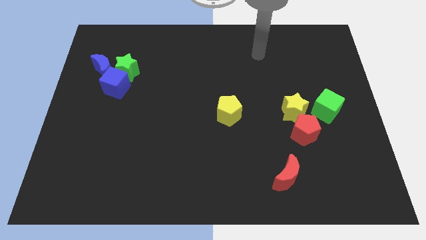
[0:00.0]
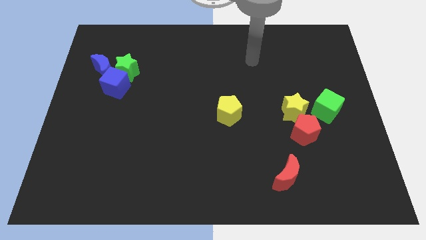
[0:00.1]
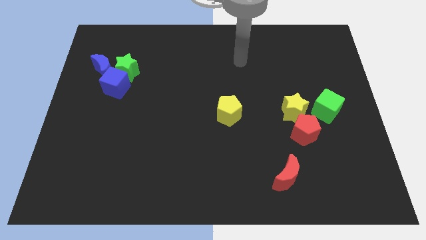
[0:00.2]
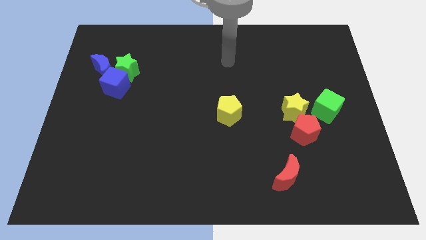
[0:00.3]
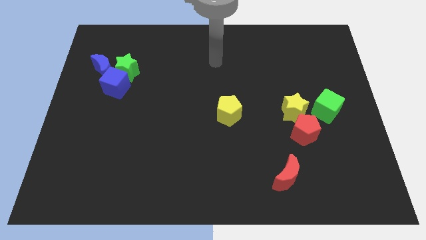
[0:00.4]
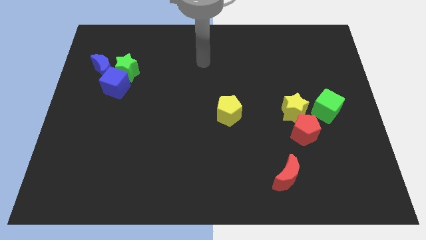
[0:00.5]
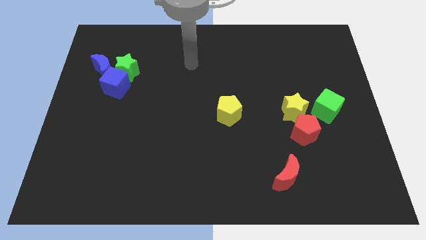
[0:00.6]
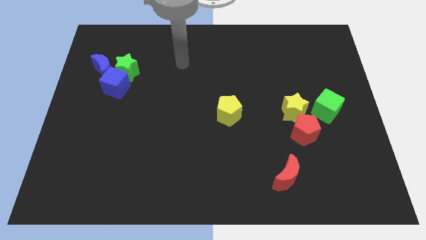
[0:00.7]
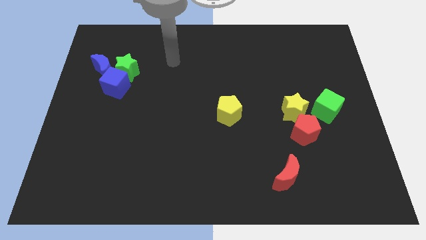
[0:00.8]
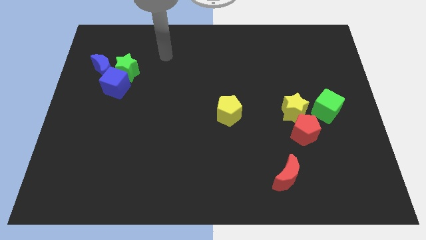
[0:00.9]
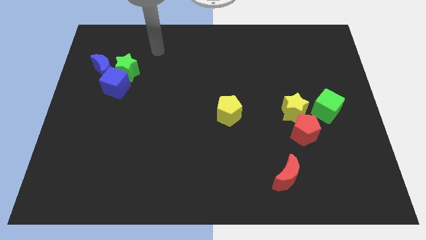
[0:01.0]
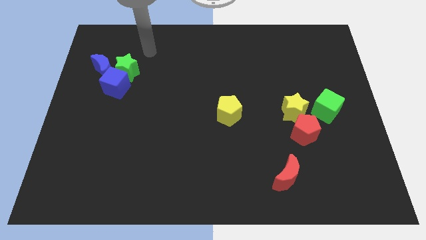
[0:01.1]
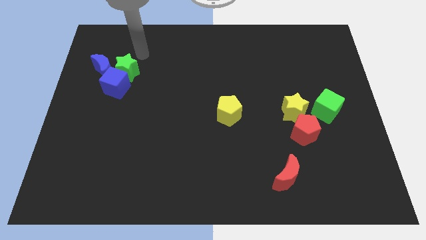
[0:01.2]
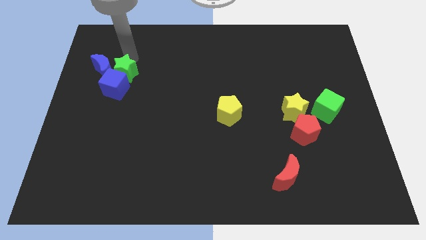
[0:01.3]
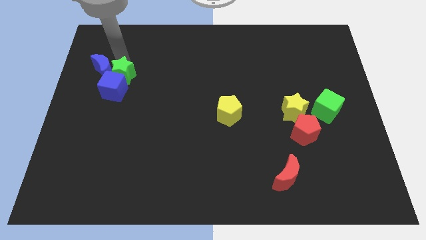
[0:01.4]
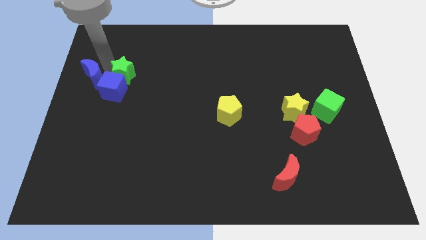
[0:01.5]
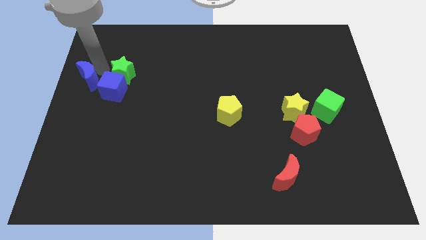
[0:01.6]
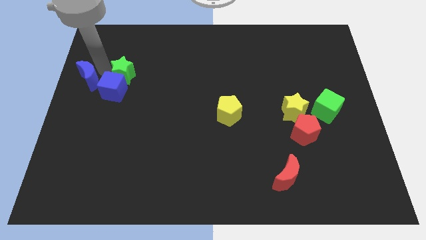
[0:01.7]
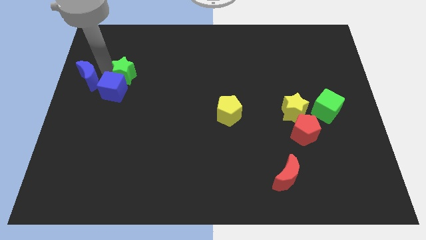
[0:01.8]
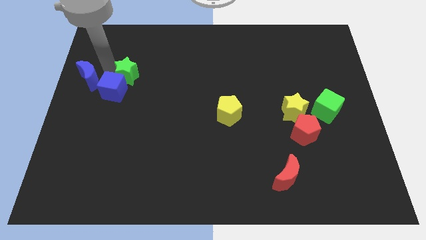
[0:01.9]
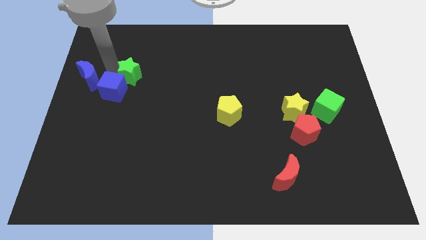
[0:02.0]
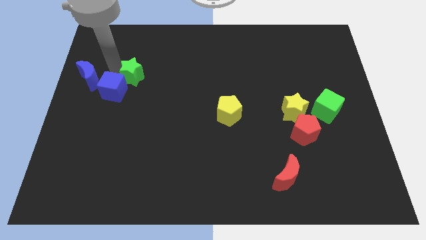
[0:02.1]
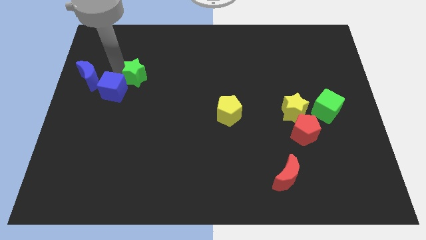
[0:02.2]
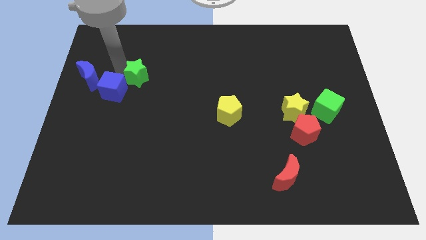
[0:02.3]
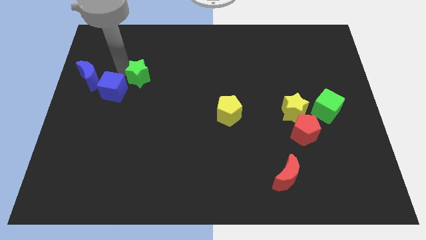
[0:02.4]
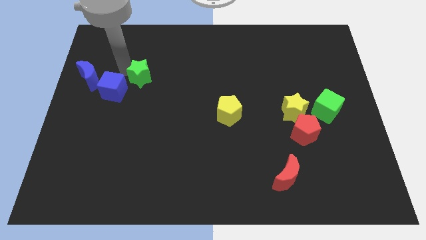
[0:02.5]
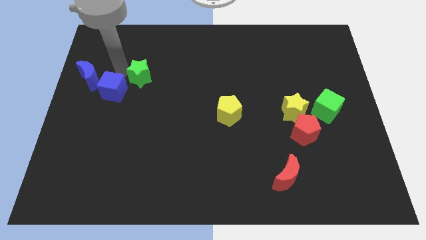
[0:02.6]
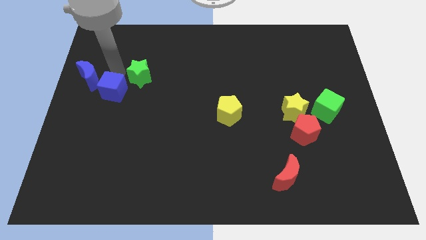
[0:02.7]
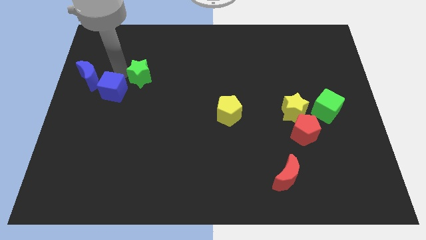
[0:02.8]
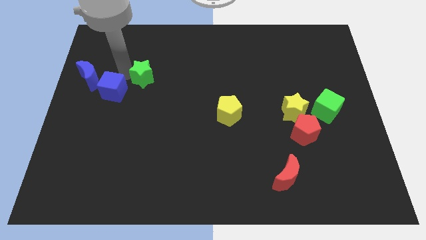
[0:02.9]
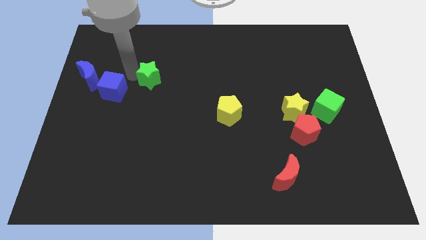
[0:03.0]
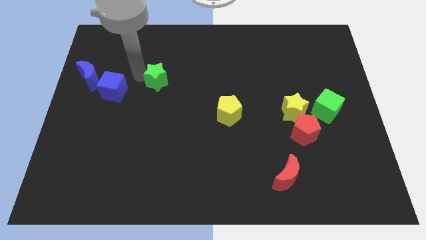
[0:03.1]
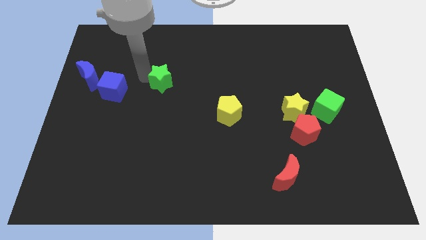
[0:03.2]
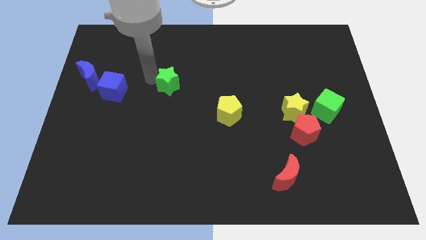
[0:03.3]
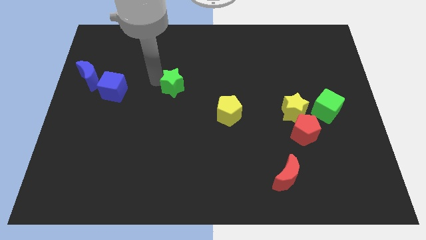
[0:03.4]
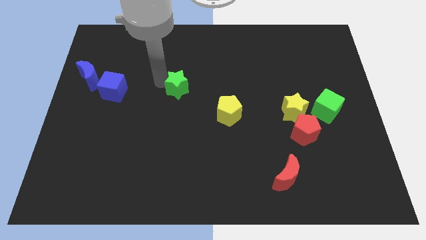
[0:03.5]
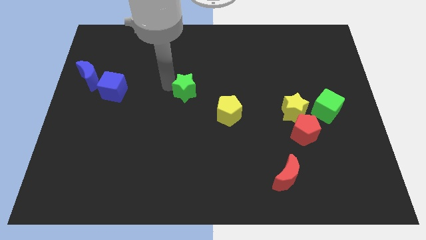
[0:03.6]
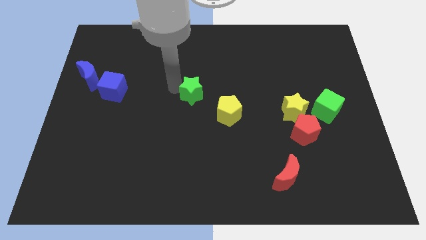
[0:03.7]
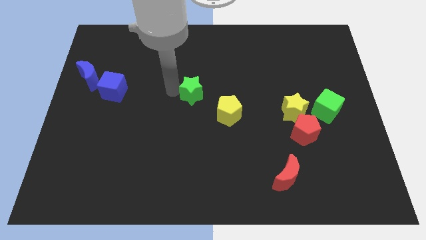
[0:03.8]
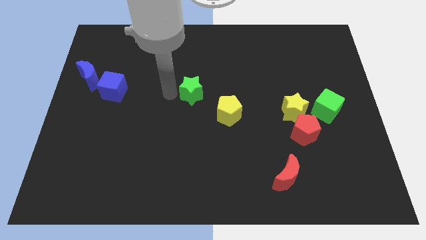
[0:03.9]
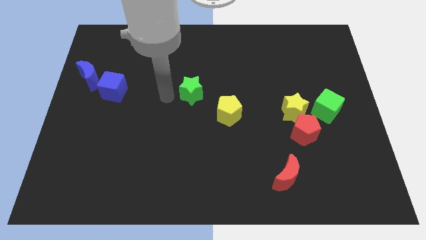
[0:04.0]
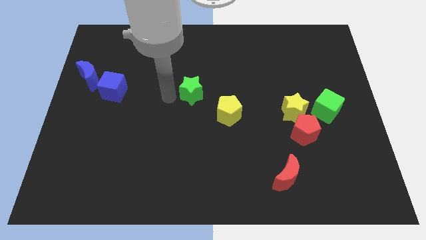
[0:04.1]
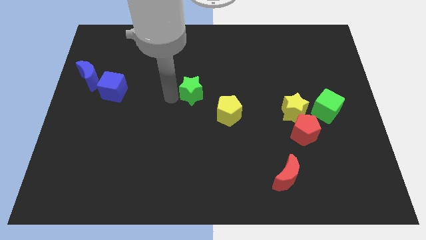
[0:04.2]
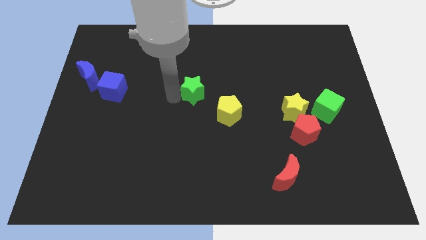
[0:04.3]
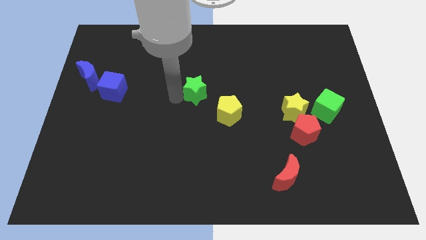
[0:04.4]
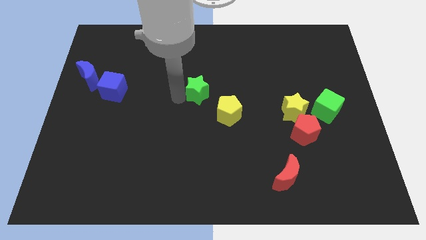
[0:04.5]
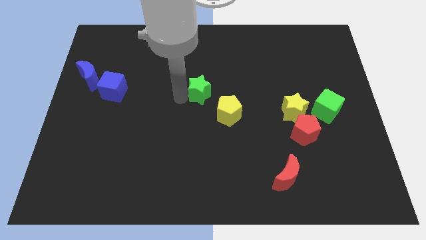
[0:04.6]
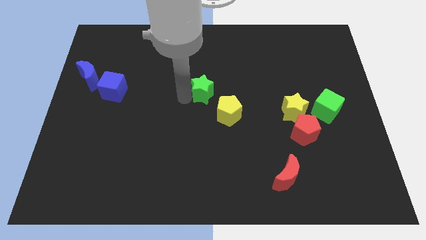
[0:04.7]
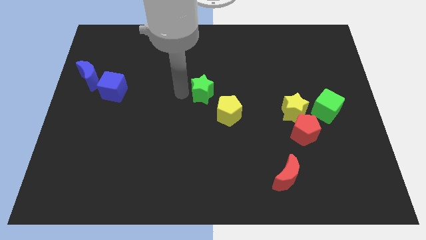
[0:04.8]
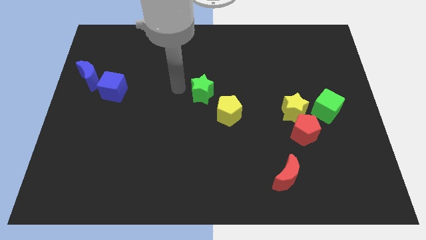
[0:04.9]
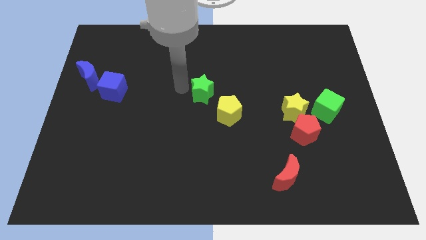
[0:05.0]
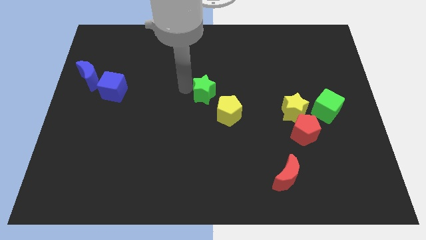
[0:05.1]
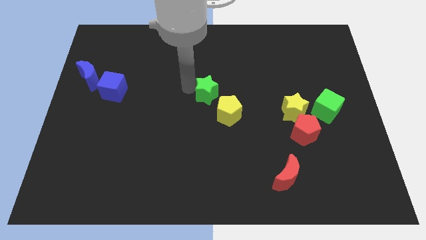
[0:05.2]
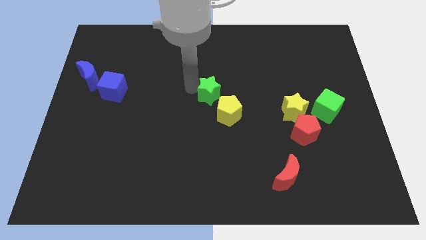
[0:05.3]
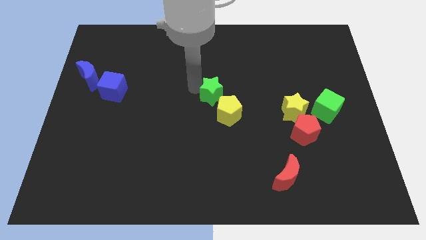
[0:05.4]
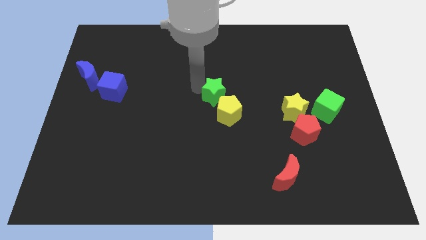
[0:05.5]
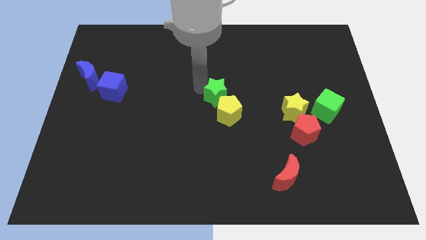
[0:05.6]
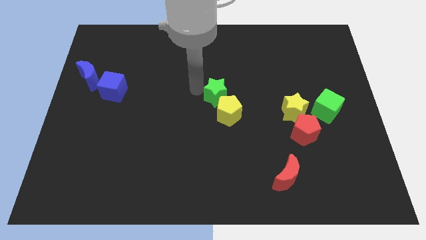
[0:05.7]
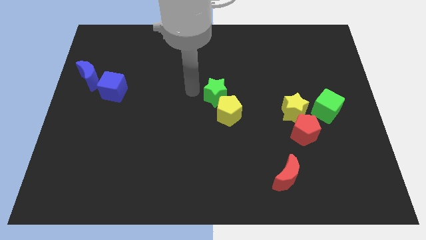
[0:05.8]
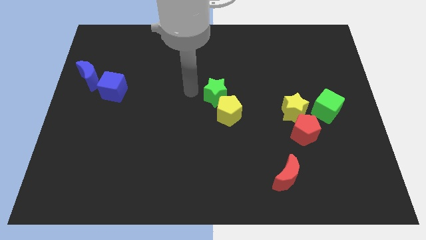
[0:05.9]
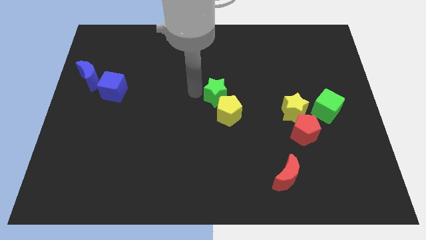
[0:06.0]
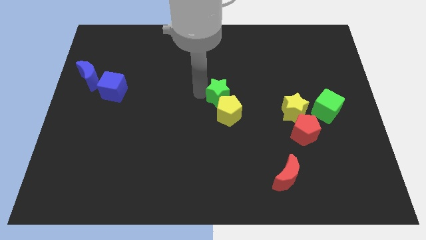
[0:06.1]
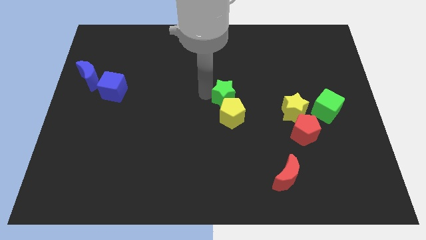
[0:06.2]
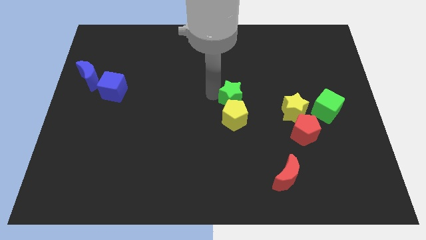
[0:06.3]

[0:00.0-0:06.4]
put the green star left of the yellow star

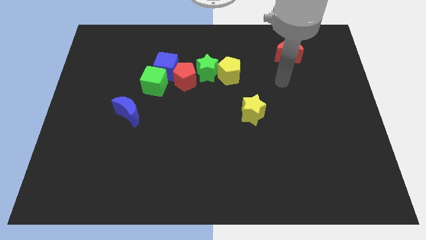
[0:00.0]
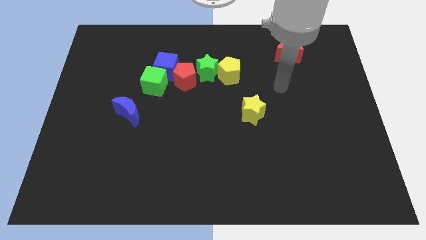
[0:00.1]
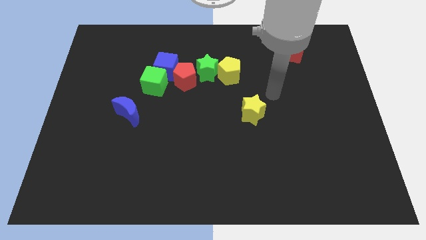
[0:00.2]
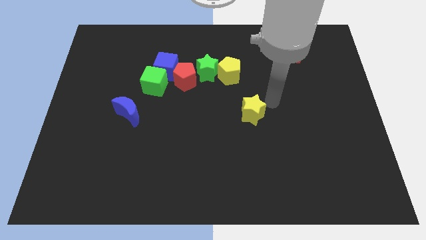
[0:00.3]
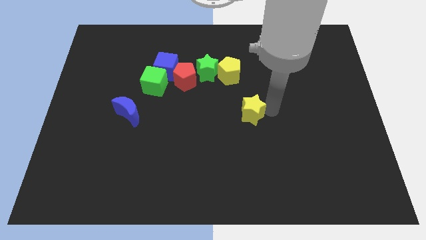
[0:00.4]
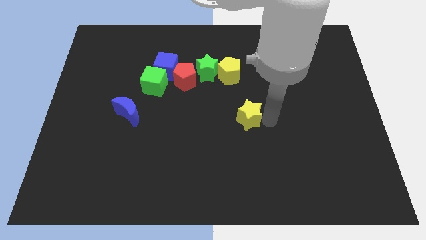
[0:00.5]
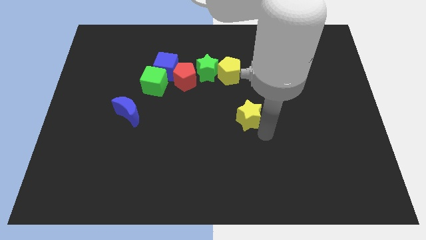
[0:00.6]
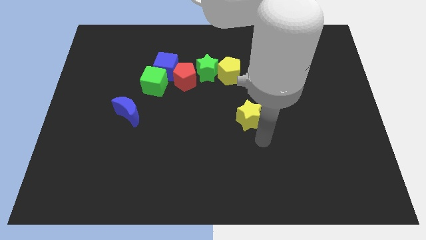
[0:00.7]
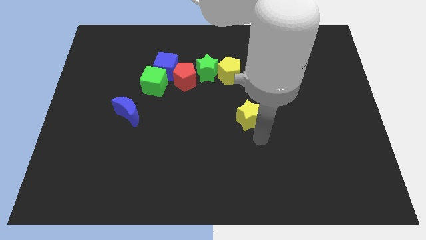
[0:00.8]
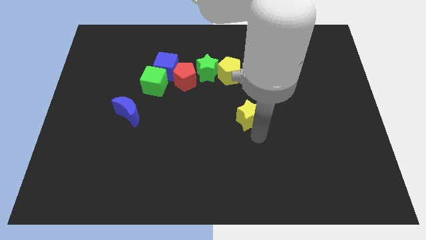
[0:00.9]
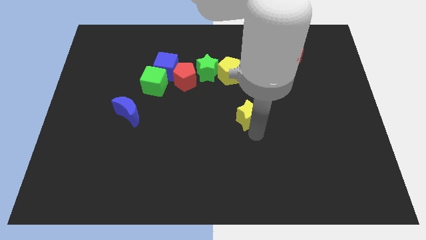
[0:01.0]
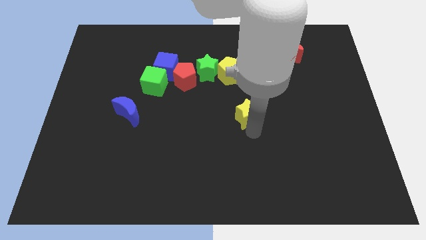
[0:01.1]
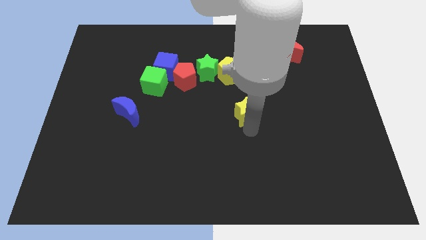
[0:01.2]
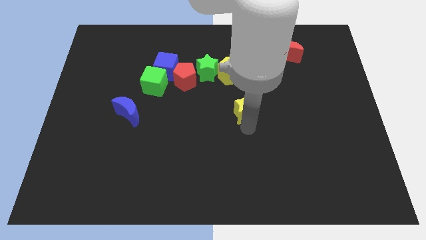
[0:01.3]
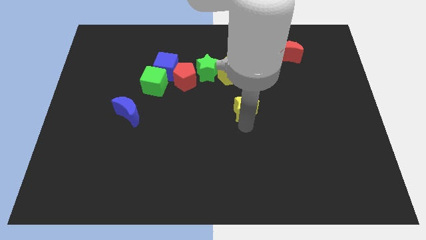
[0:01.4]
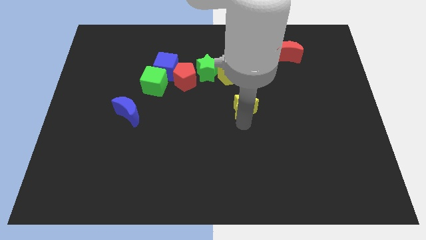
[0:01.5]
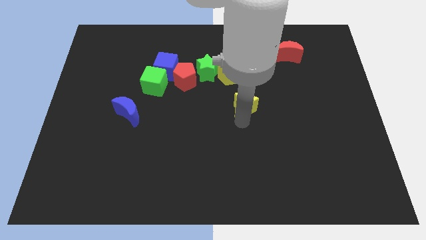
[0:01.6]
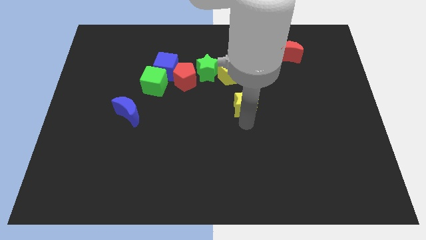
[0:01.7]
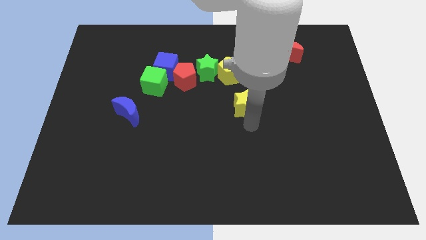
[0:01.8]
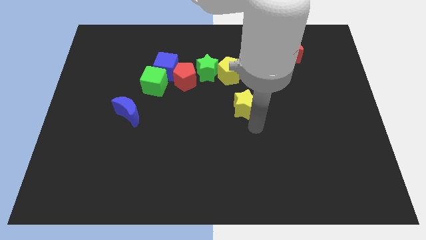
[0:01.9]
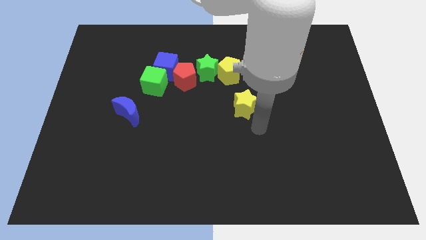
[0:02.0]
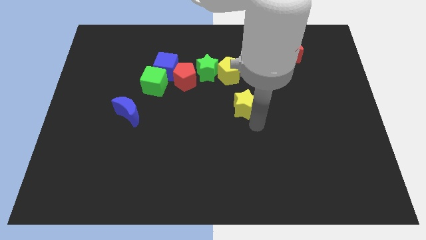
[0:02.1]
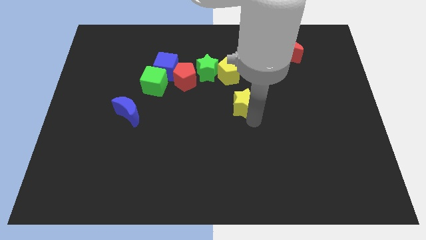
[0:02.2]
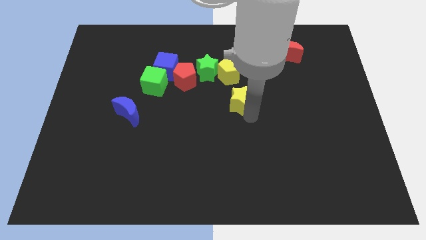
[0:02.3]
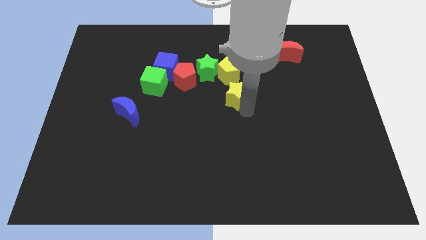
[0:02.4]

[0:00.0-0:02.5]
put the yellow star diagonally down and to the right of the green star
